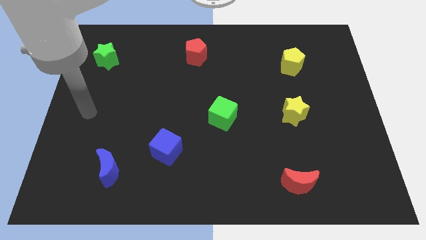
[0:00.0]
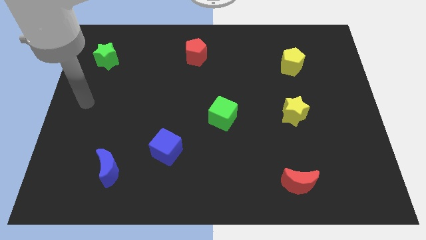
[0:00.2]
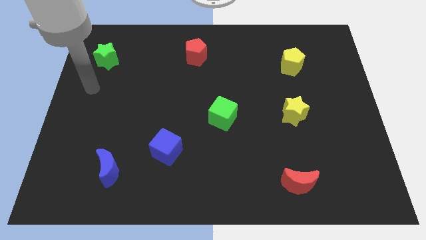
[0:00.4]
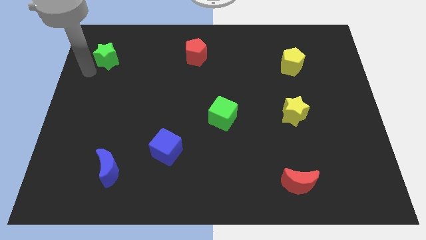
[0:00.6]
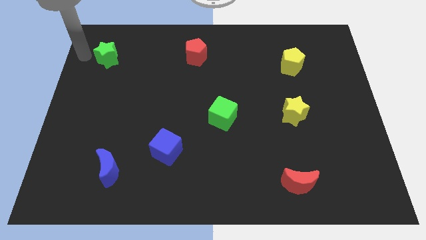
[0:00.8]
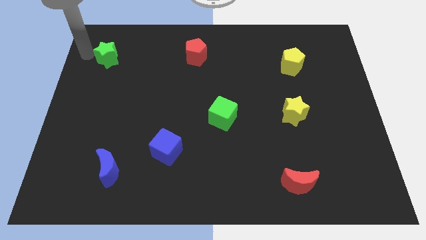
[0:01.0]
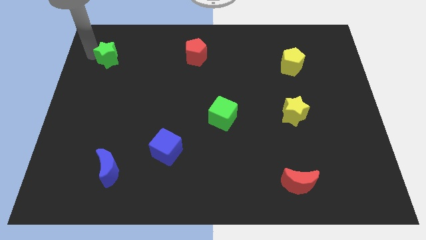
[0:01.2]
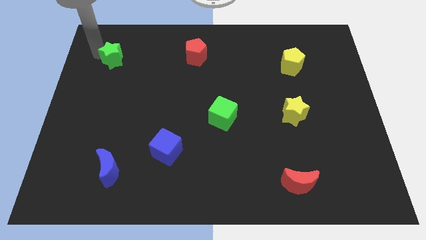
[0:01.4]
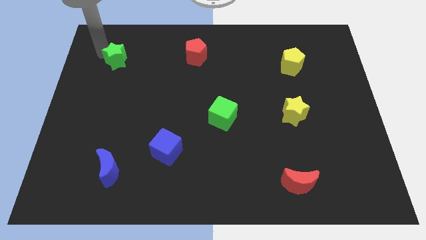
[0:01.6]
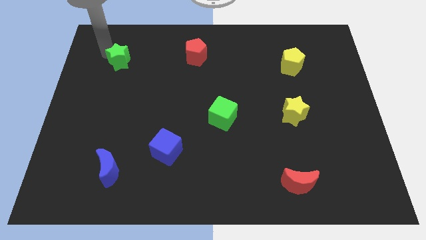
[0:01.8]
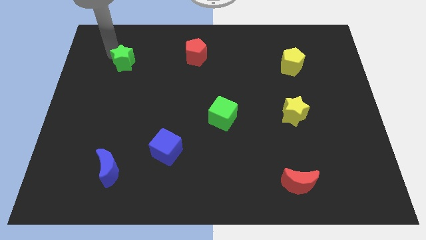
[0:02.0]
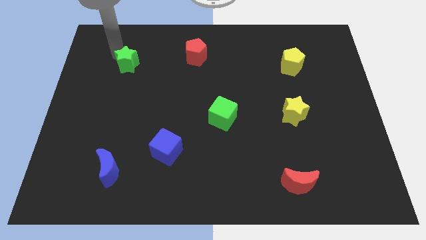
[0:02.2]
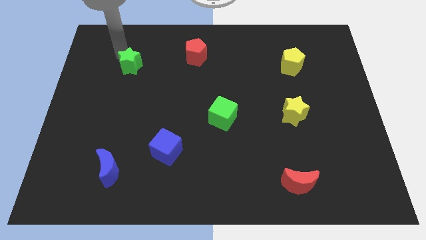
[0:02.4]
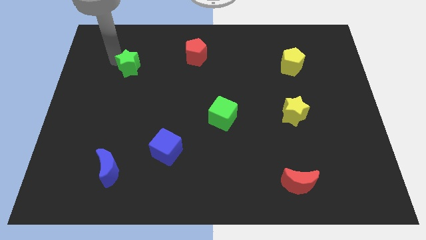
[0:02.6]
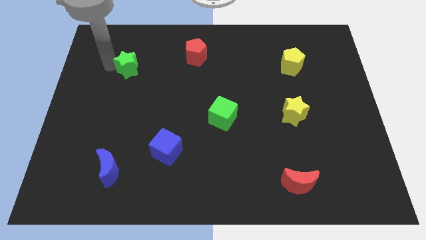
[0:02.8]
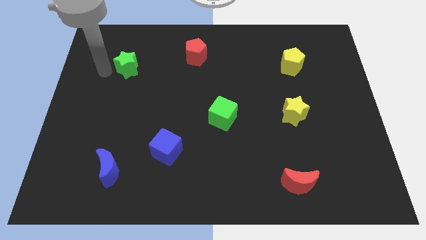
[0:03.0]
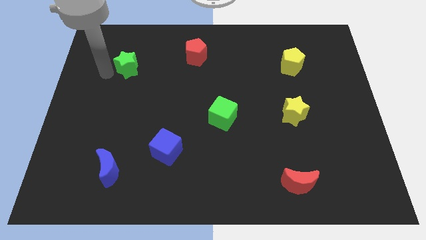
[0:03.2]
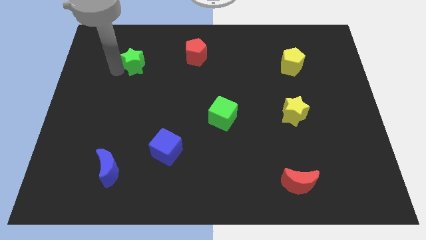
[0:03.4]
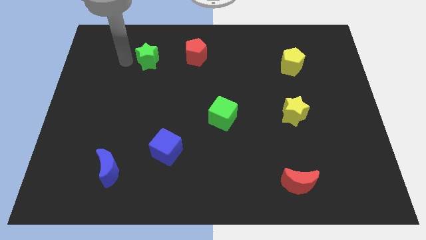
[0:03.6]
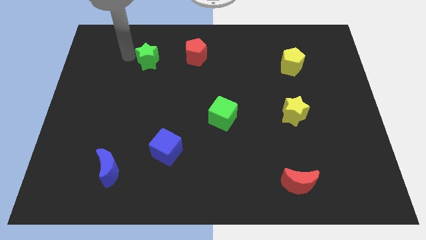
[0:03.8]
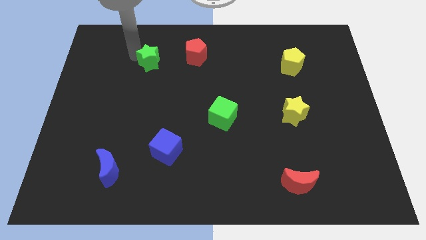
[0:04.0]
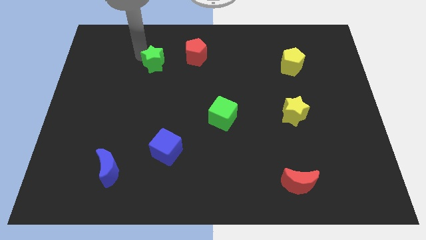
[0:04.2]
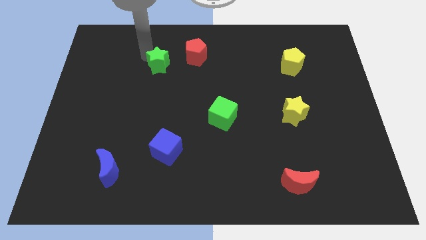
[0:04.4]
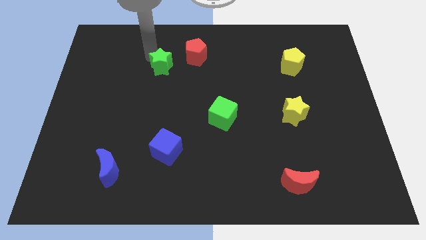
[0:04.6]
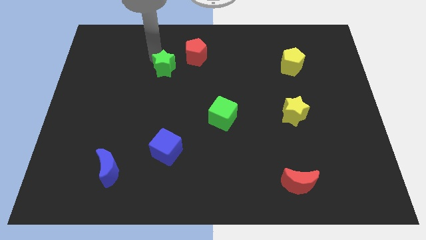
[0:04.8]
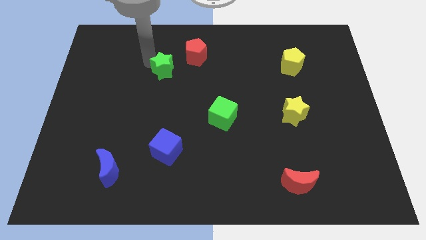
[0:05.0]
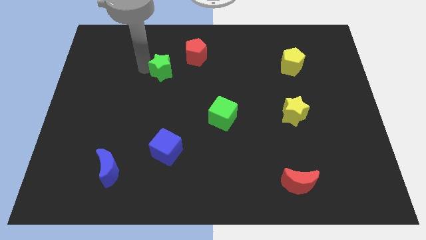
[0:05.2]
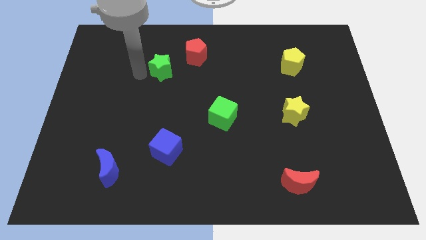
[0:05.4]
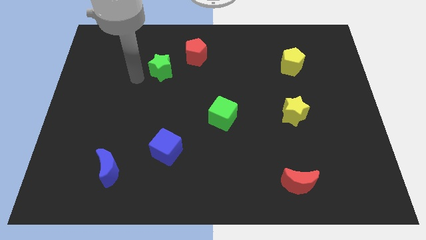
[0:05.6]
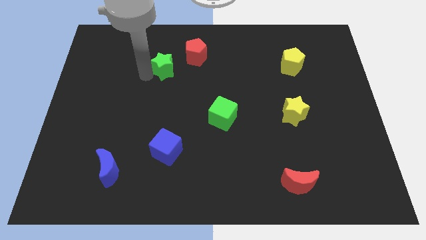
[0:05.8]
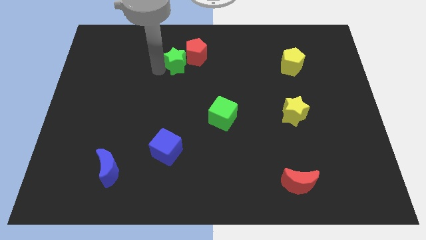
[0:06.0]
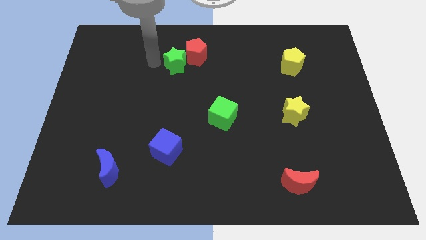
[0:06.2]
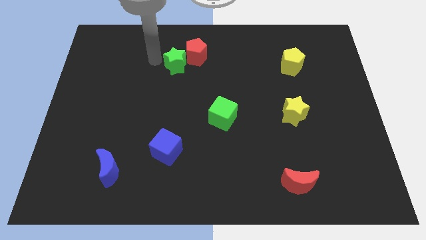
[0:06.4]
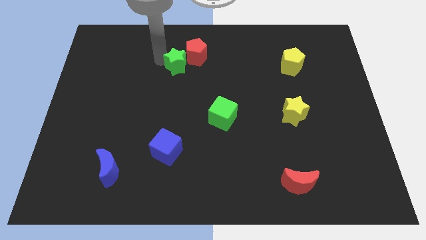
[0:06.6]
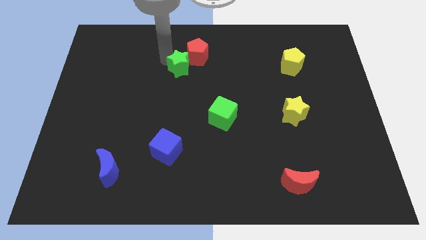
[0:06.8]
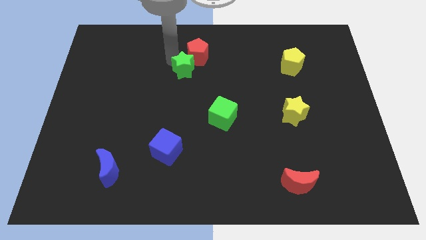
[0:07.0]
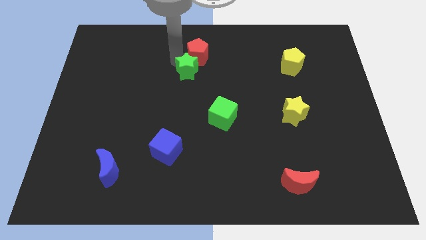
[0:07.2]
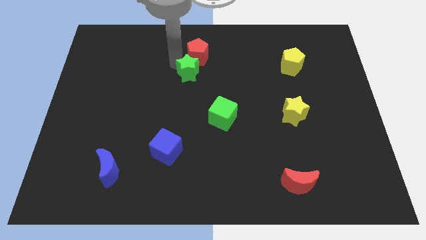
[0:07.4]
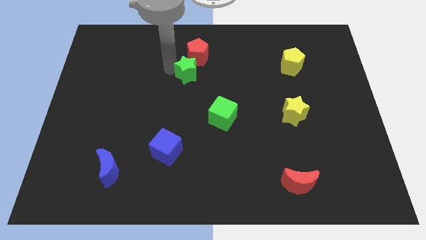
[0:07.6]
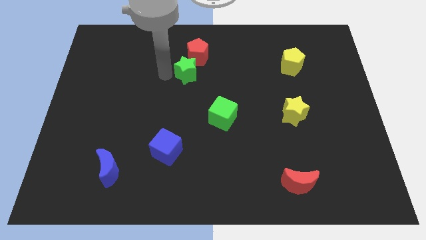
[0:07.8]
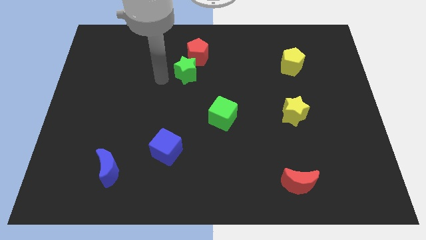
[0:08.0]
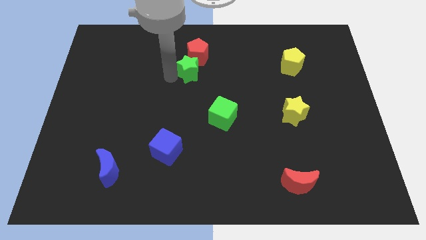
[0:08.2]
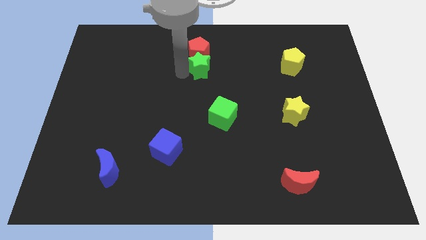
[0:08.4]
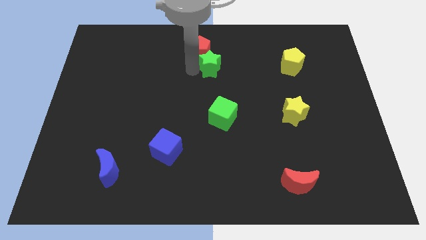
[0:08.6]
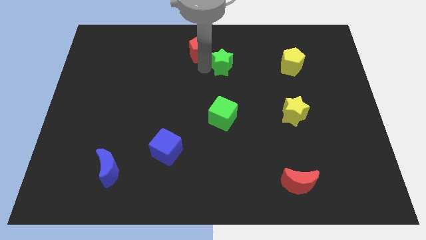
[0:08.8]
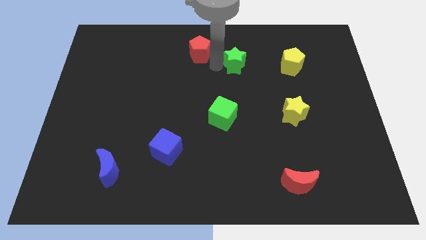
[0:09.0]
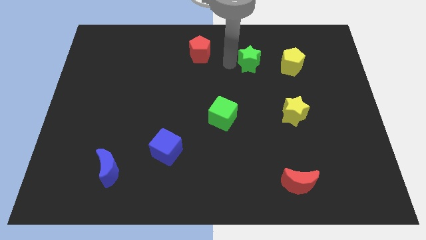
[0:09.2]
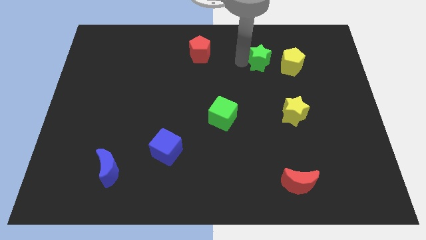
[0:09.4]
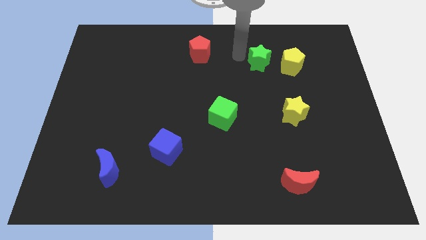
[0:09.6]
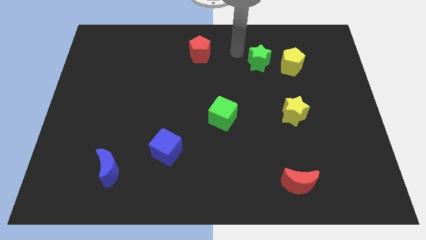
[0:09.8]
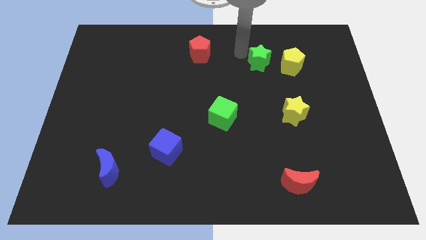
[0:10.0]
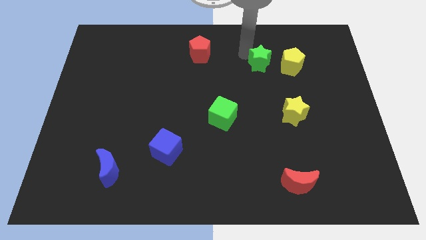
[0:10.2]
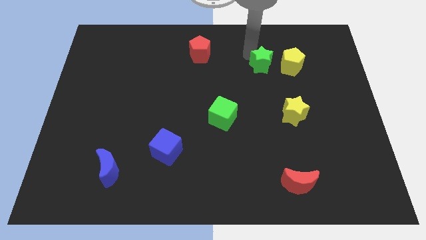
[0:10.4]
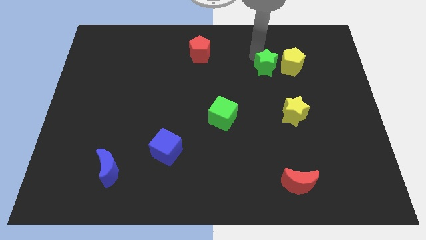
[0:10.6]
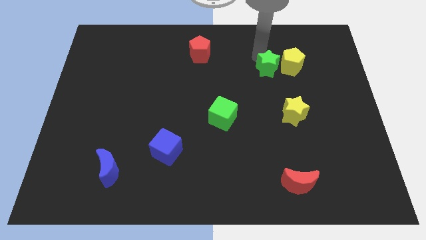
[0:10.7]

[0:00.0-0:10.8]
move the green star to the yellow pentagon

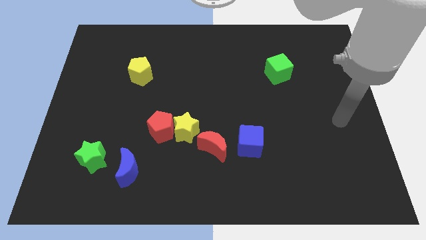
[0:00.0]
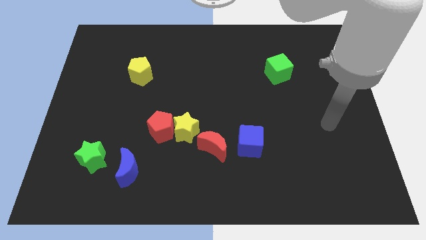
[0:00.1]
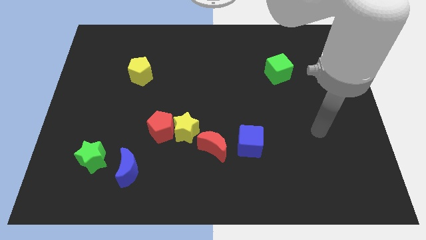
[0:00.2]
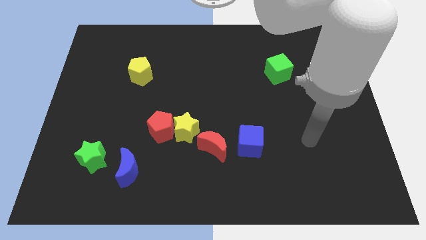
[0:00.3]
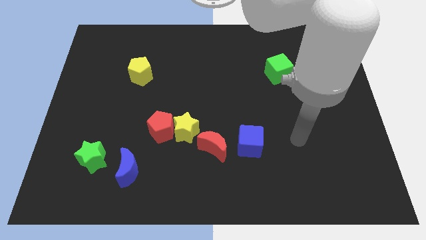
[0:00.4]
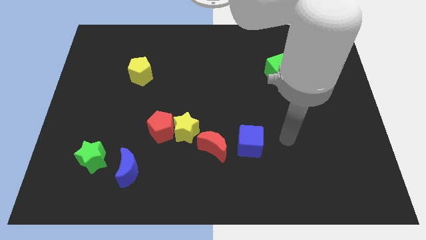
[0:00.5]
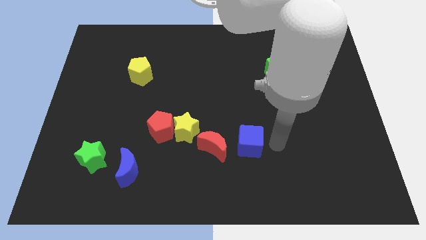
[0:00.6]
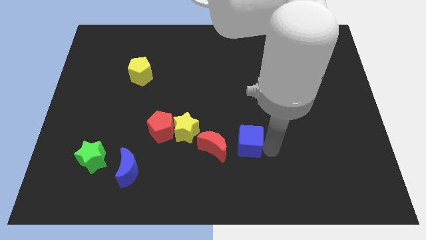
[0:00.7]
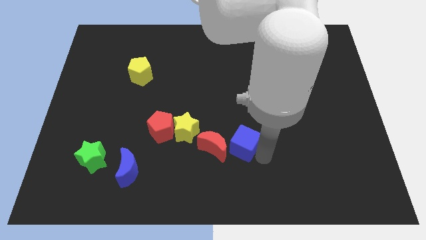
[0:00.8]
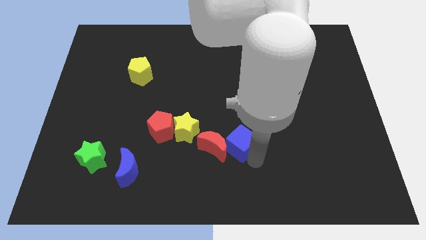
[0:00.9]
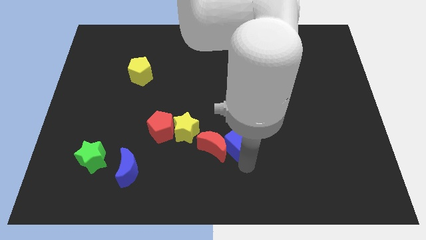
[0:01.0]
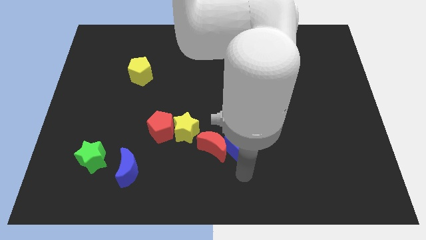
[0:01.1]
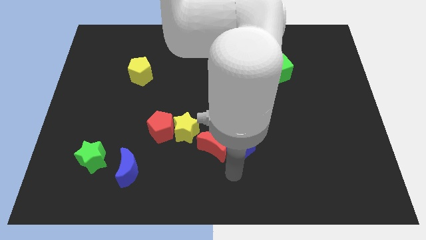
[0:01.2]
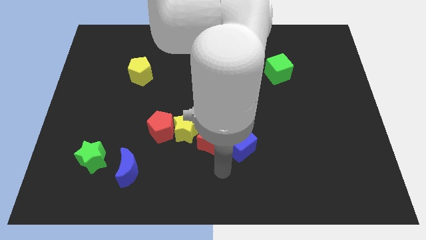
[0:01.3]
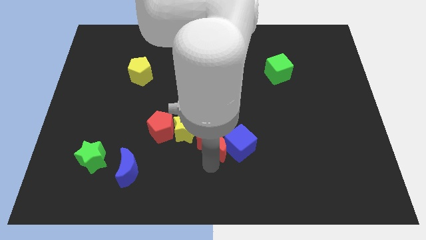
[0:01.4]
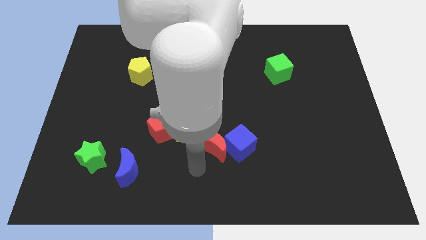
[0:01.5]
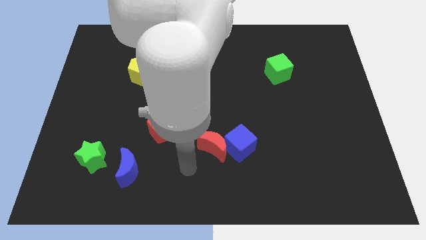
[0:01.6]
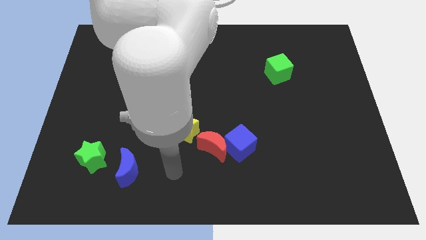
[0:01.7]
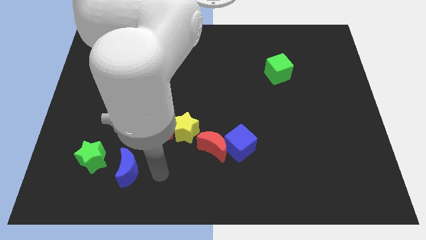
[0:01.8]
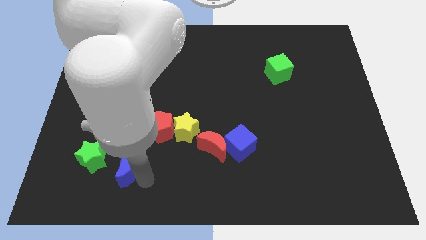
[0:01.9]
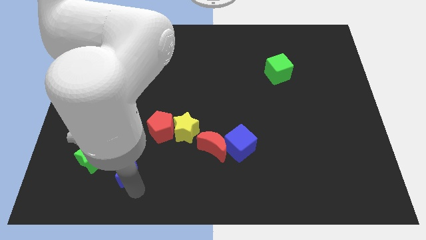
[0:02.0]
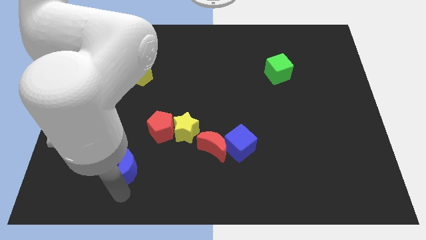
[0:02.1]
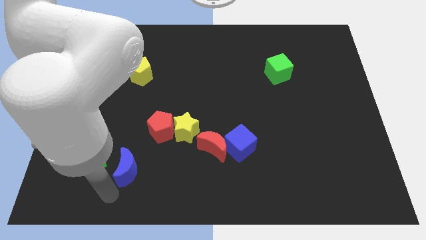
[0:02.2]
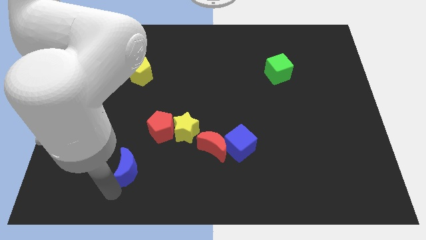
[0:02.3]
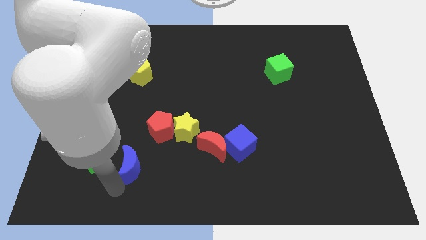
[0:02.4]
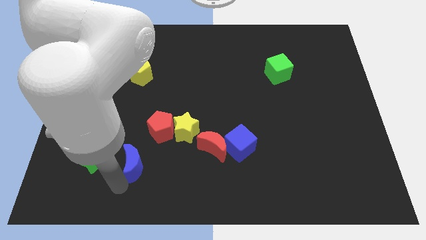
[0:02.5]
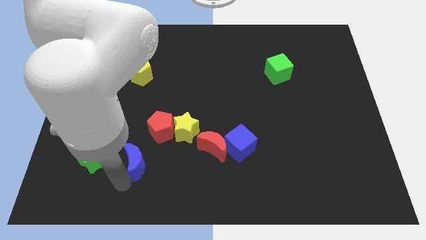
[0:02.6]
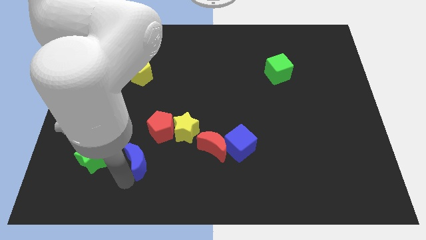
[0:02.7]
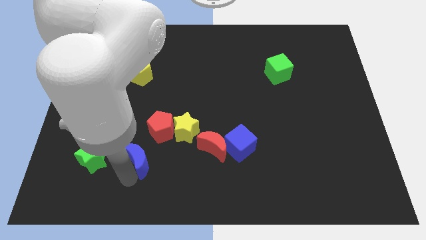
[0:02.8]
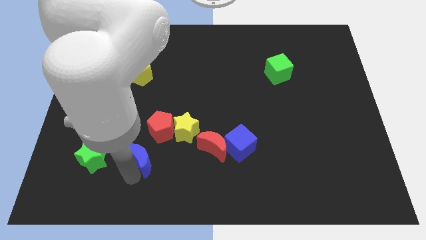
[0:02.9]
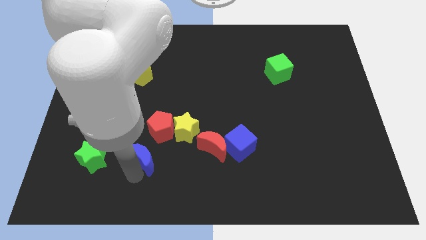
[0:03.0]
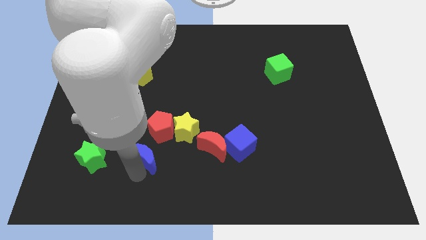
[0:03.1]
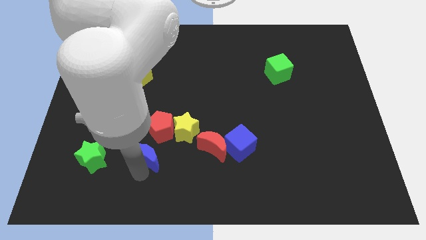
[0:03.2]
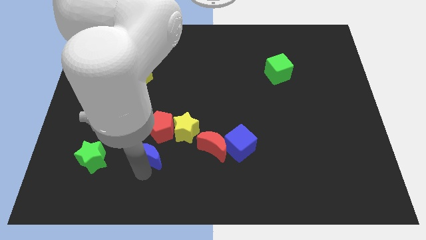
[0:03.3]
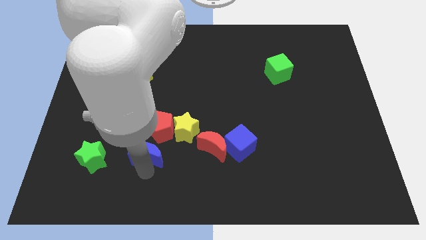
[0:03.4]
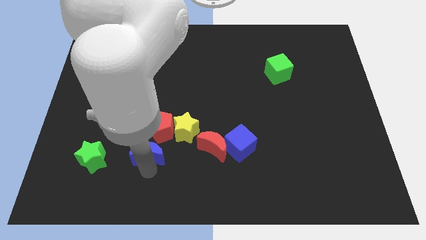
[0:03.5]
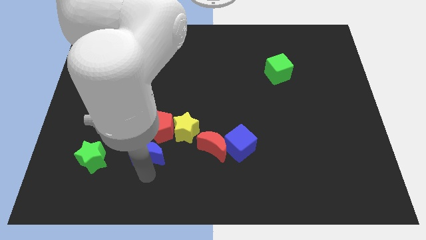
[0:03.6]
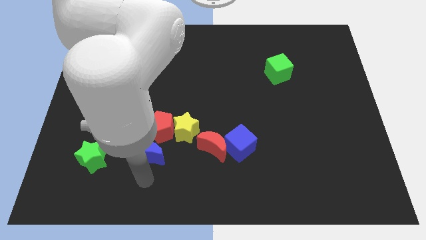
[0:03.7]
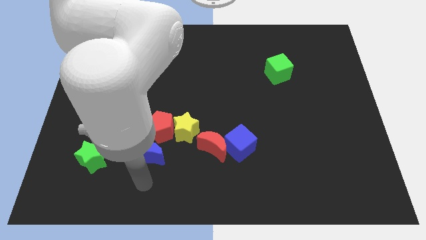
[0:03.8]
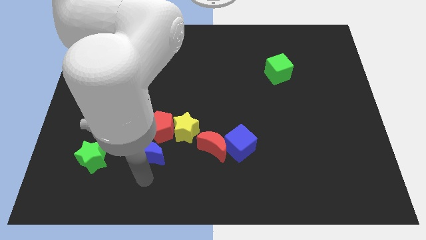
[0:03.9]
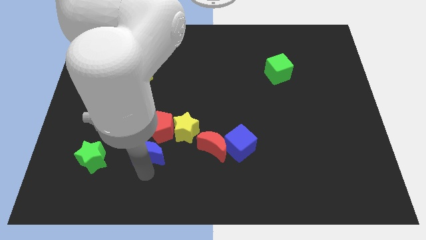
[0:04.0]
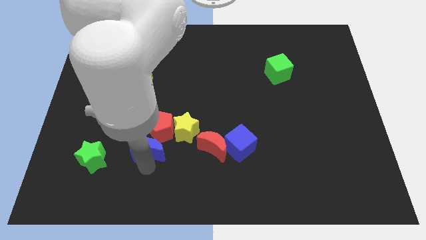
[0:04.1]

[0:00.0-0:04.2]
push the blue moon to the red pentagon
